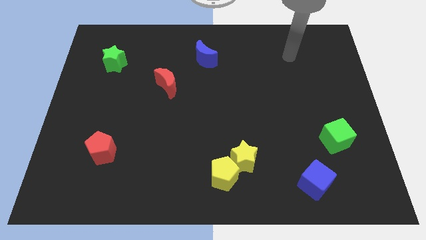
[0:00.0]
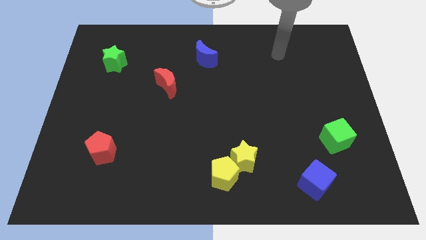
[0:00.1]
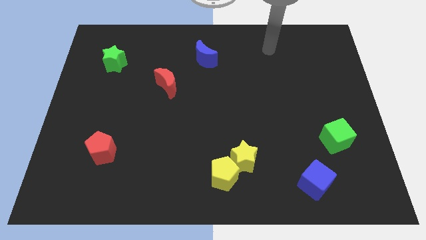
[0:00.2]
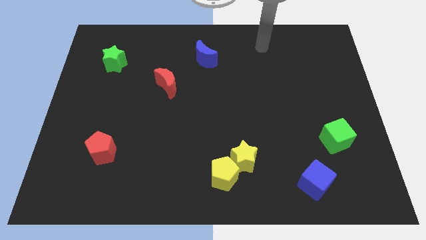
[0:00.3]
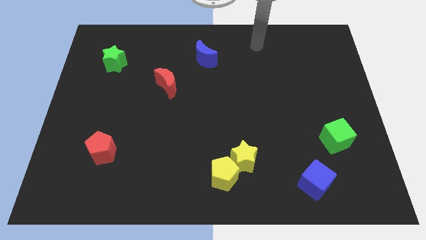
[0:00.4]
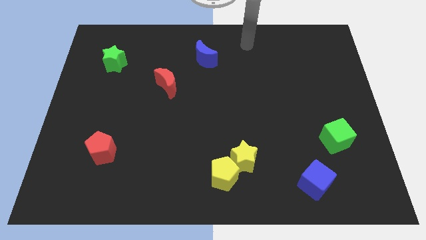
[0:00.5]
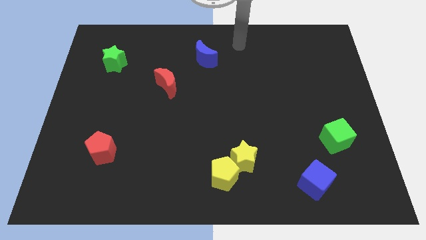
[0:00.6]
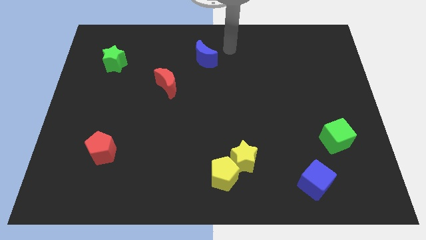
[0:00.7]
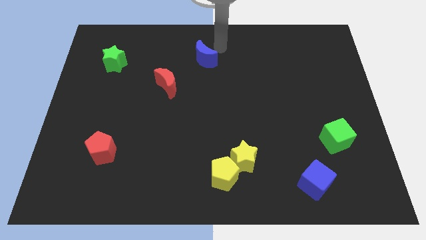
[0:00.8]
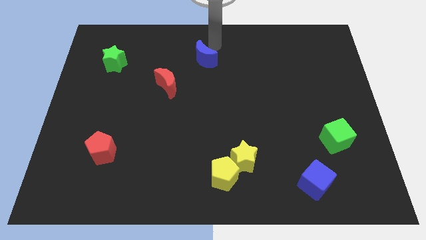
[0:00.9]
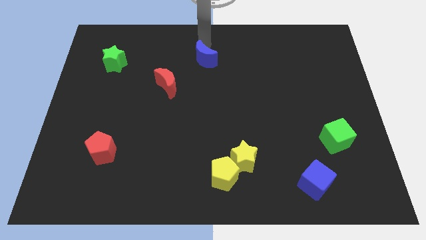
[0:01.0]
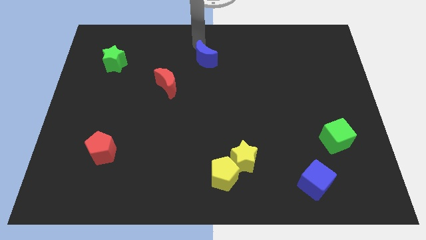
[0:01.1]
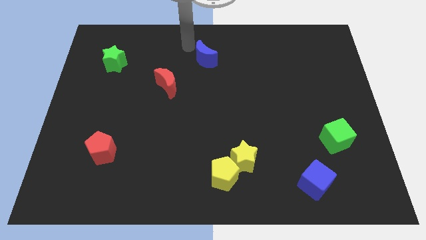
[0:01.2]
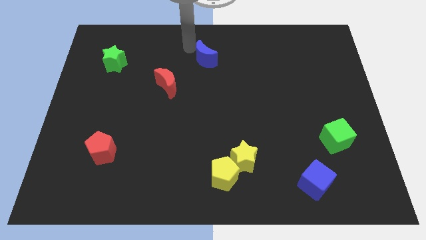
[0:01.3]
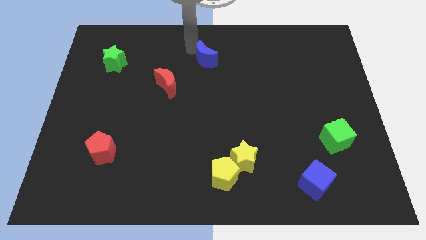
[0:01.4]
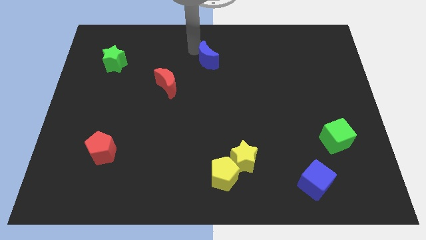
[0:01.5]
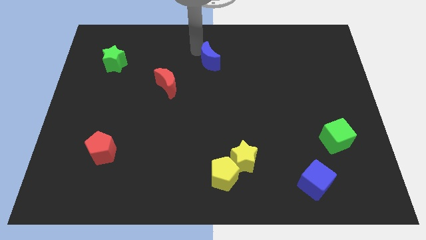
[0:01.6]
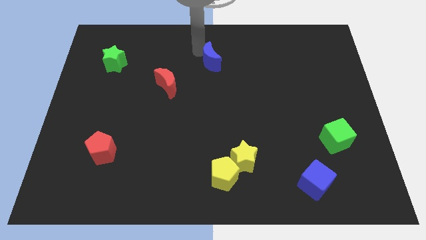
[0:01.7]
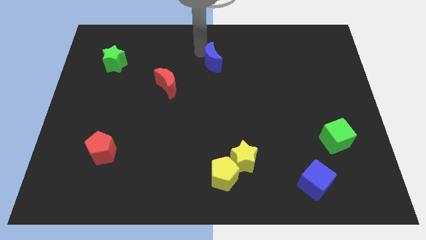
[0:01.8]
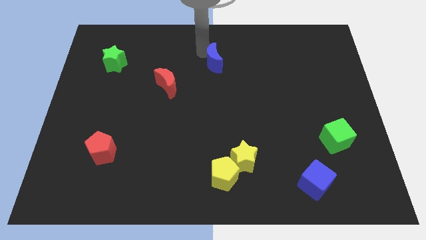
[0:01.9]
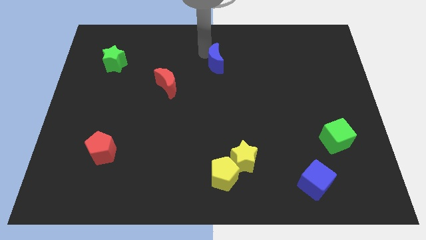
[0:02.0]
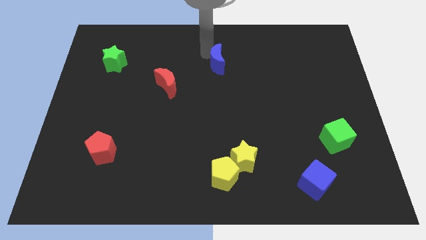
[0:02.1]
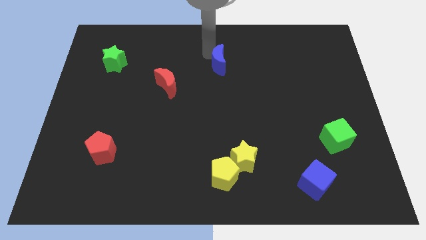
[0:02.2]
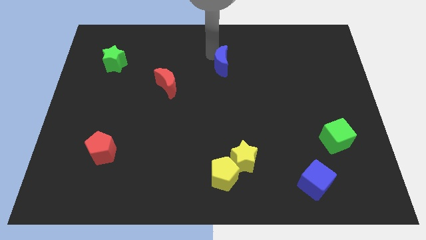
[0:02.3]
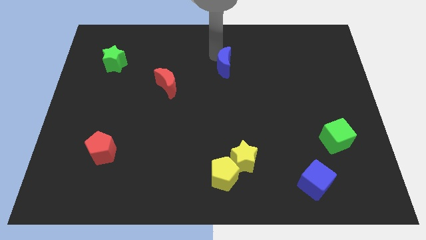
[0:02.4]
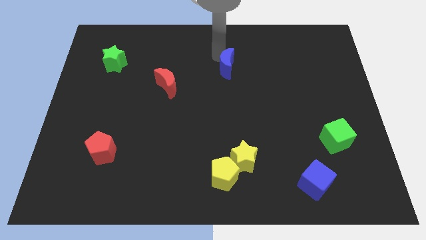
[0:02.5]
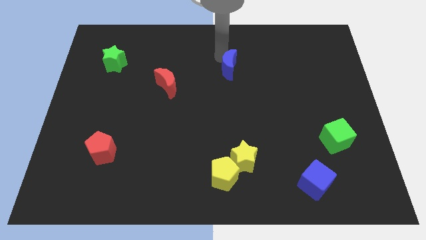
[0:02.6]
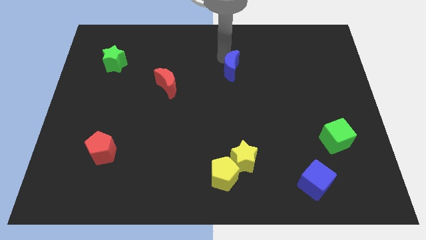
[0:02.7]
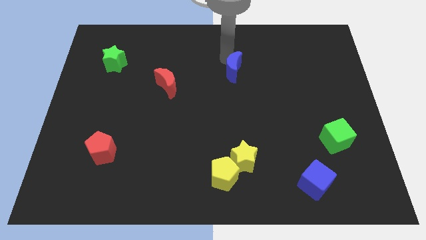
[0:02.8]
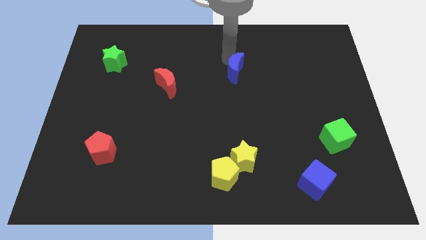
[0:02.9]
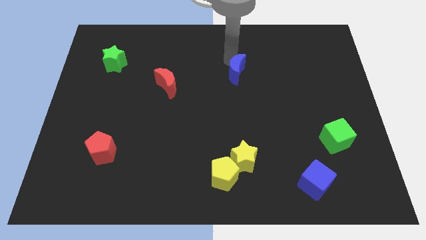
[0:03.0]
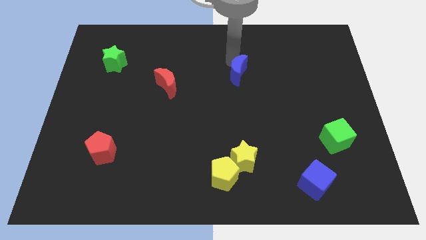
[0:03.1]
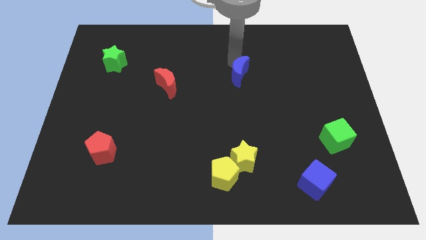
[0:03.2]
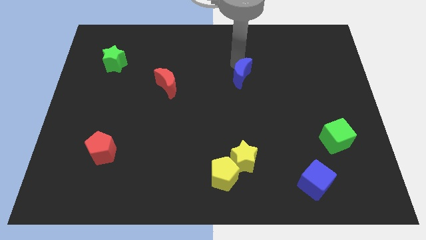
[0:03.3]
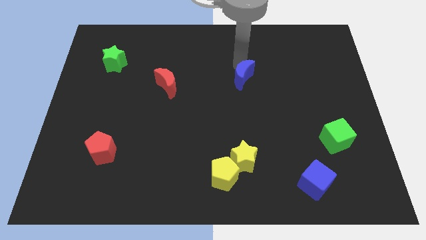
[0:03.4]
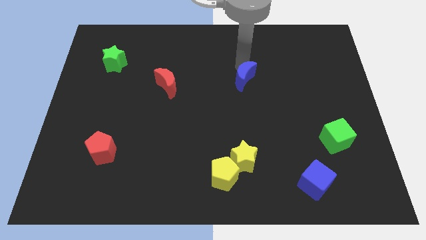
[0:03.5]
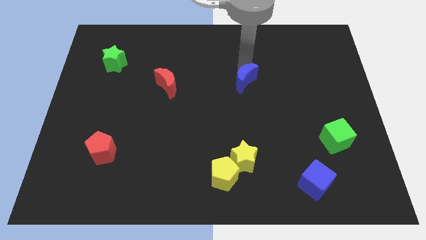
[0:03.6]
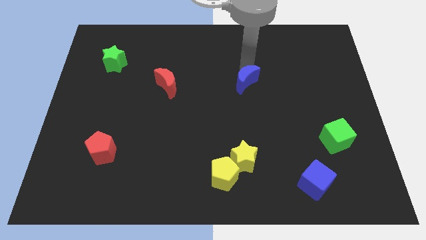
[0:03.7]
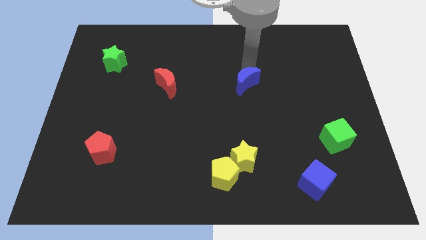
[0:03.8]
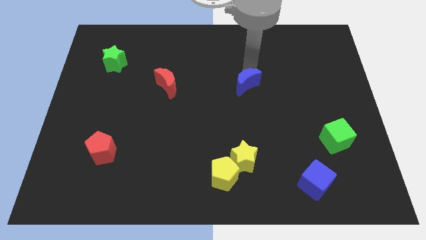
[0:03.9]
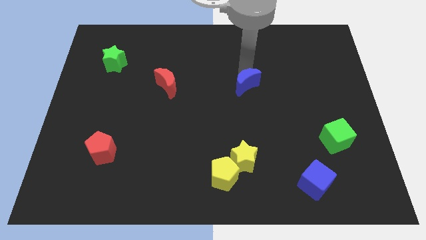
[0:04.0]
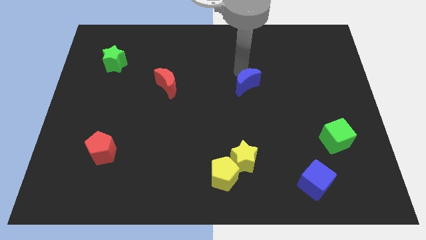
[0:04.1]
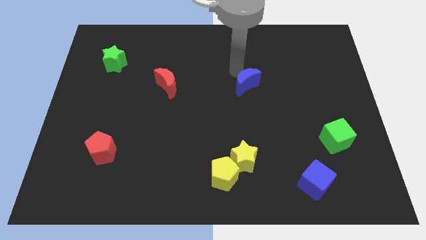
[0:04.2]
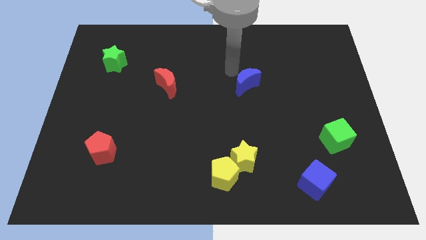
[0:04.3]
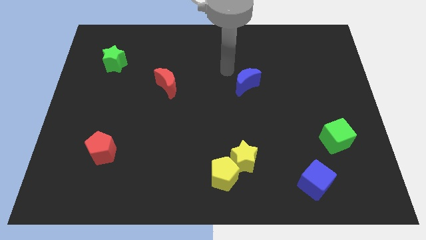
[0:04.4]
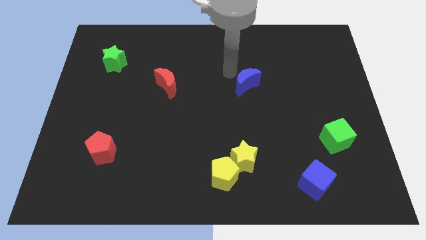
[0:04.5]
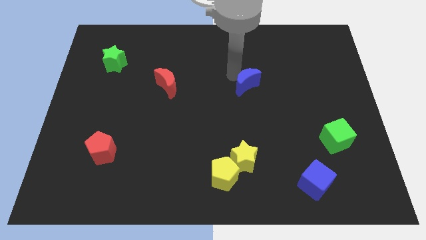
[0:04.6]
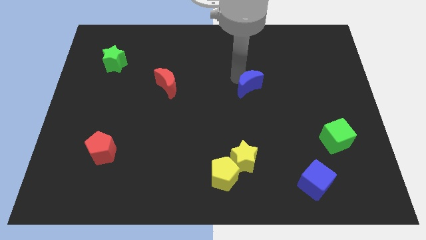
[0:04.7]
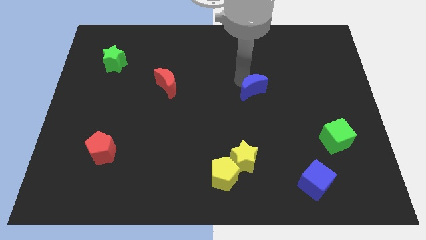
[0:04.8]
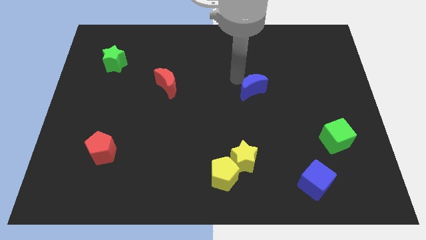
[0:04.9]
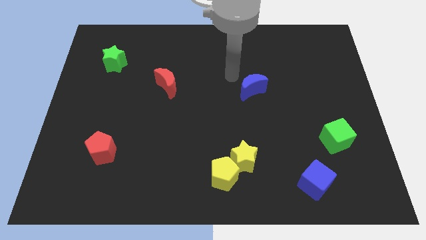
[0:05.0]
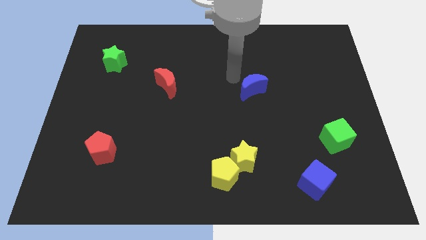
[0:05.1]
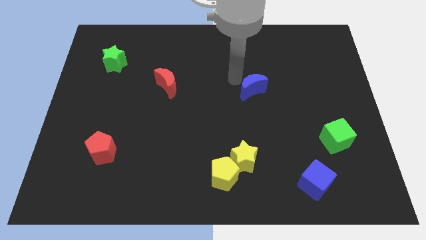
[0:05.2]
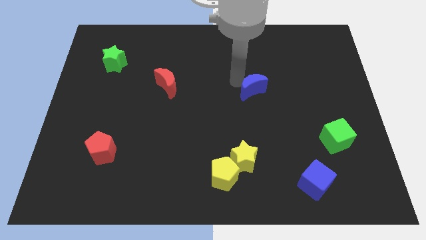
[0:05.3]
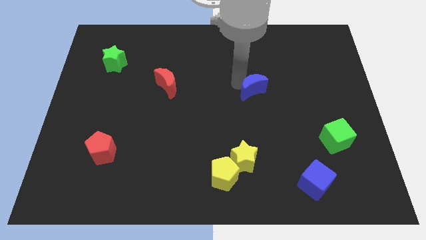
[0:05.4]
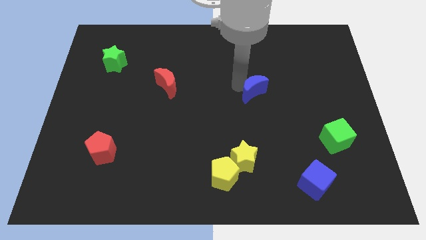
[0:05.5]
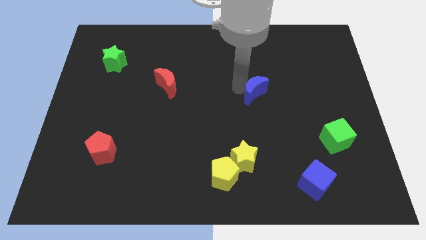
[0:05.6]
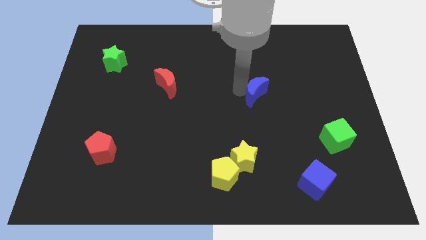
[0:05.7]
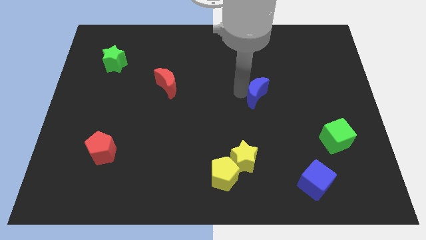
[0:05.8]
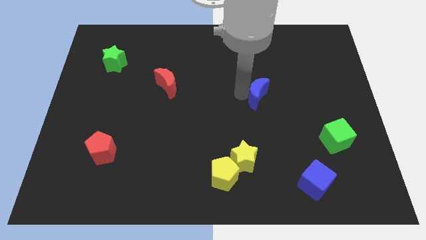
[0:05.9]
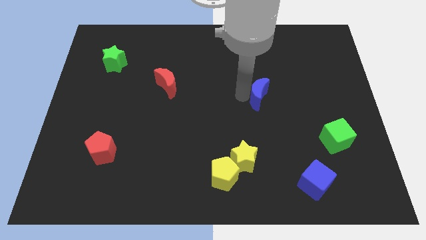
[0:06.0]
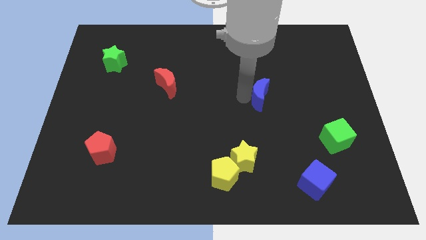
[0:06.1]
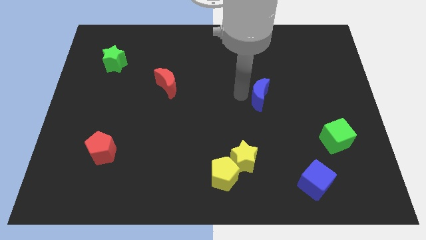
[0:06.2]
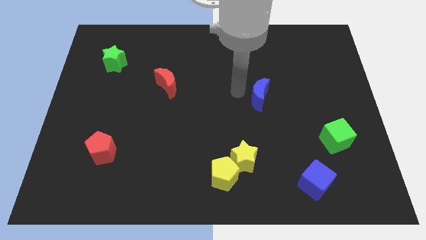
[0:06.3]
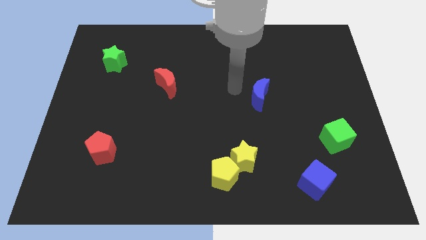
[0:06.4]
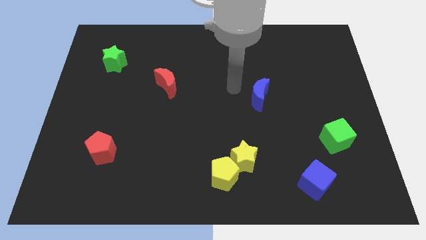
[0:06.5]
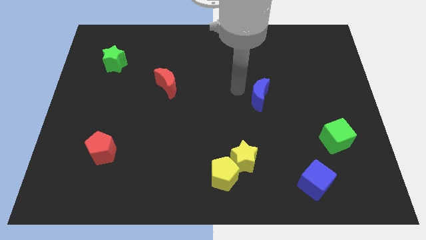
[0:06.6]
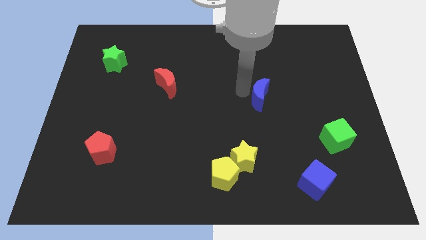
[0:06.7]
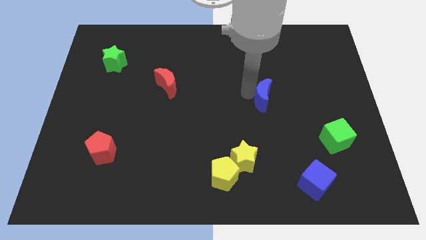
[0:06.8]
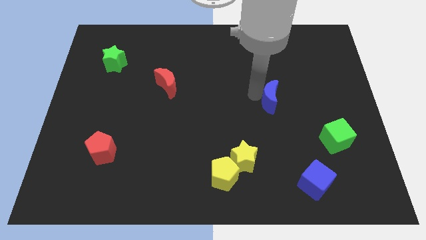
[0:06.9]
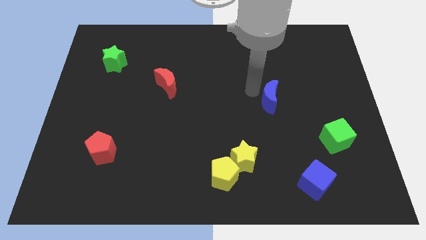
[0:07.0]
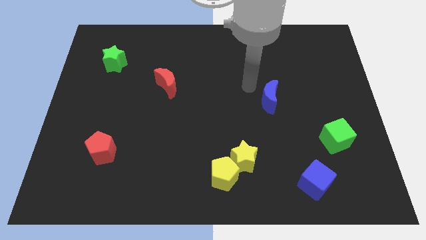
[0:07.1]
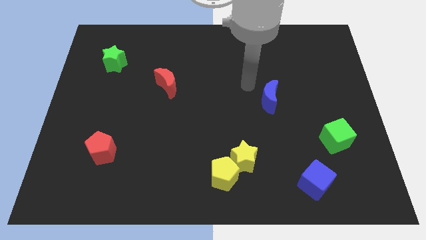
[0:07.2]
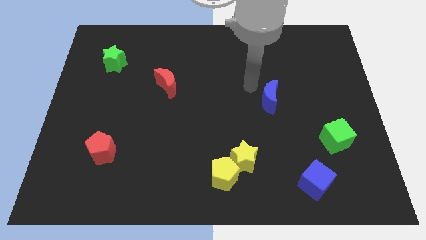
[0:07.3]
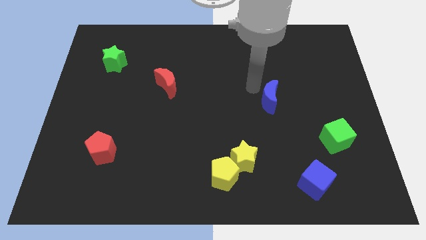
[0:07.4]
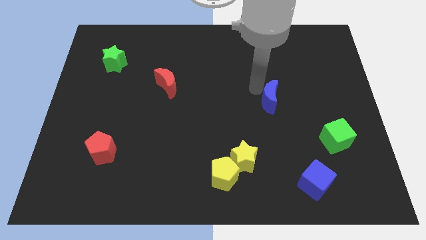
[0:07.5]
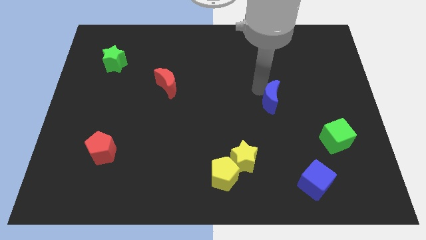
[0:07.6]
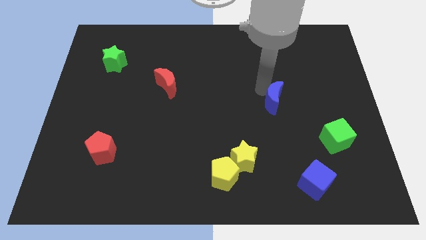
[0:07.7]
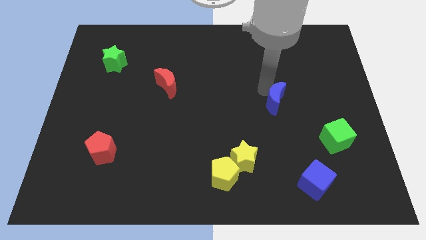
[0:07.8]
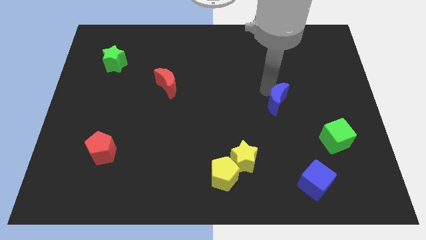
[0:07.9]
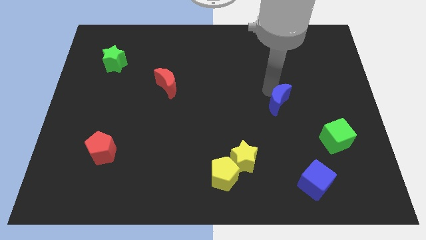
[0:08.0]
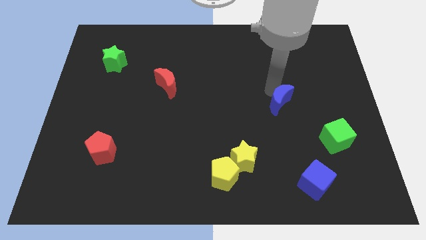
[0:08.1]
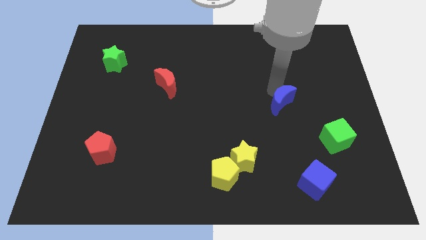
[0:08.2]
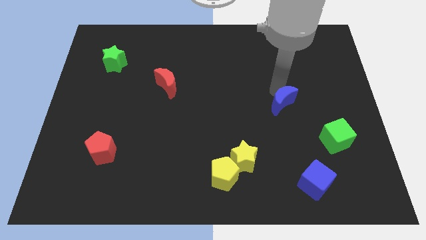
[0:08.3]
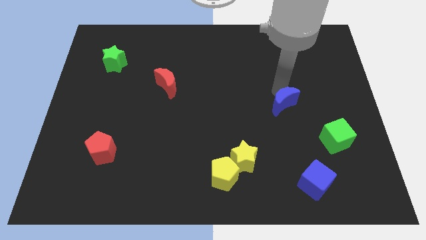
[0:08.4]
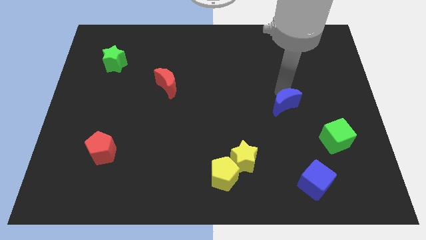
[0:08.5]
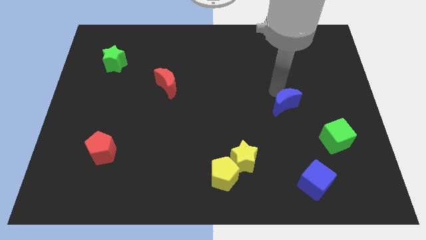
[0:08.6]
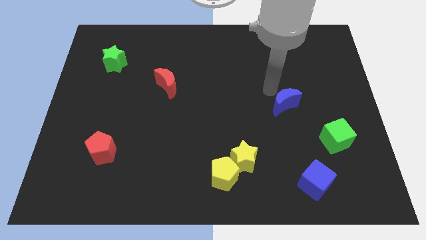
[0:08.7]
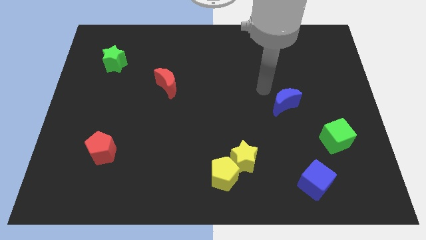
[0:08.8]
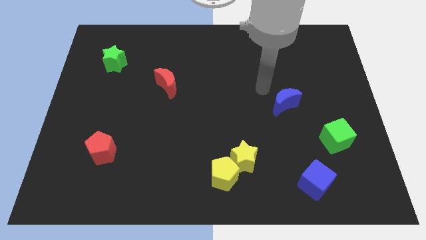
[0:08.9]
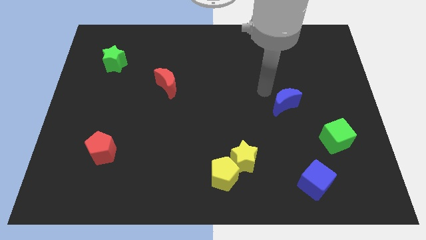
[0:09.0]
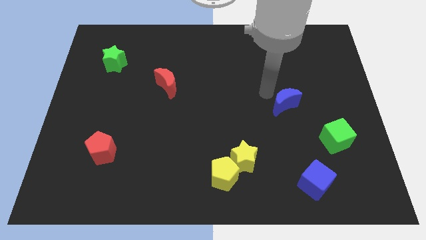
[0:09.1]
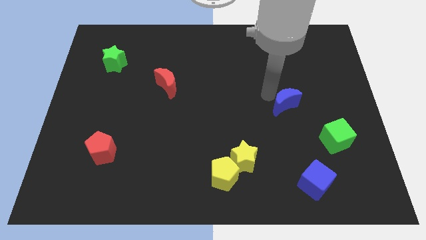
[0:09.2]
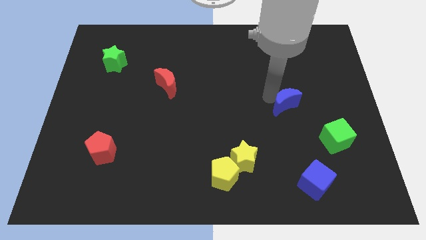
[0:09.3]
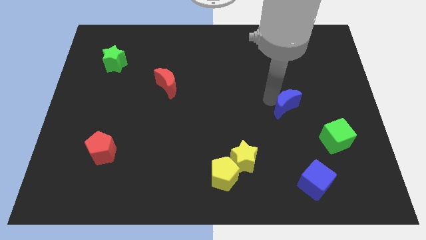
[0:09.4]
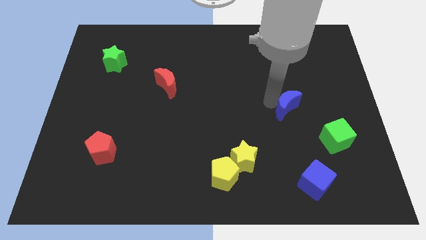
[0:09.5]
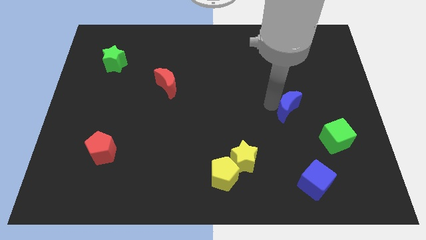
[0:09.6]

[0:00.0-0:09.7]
push the blue moon to the top left side of the green cube
